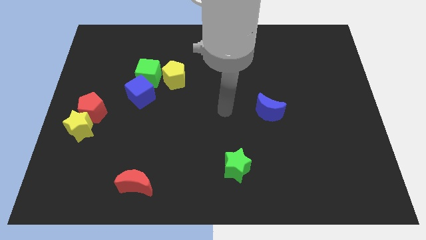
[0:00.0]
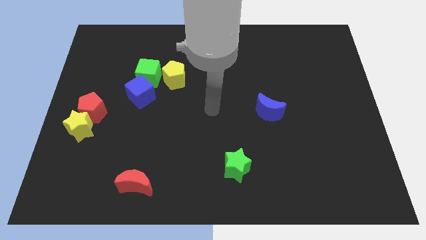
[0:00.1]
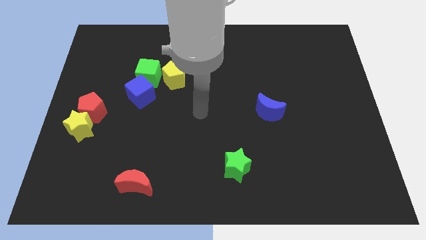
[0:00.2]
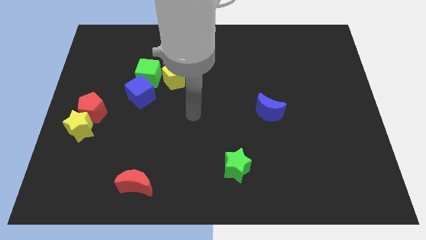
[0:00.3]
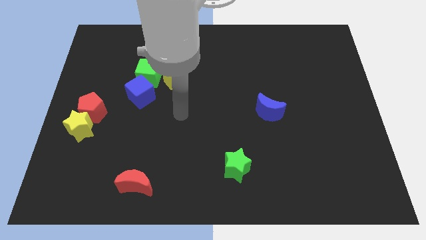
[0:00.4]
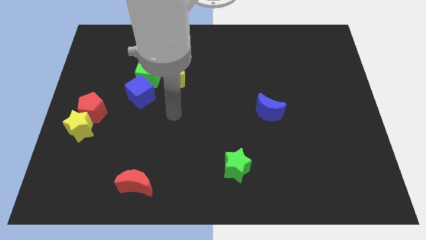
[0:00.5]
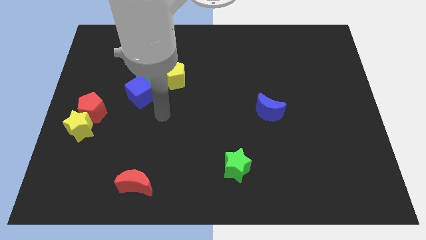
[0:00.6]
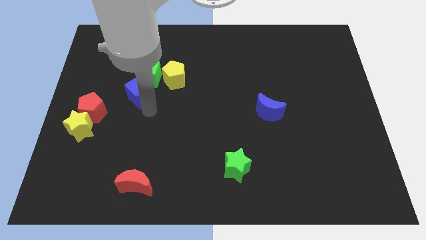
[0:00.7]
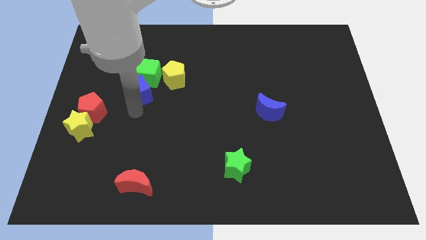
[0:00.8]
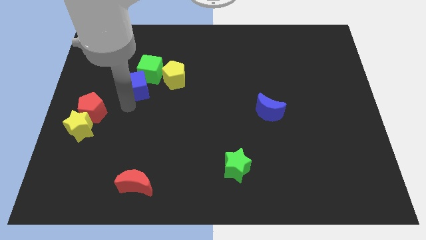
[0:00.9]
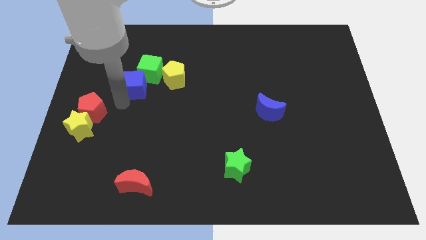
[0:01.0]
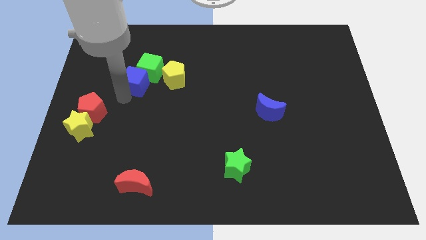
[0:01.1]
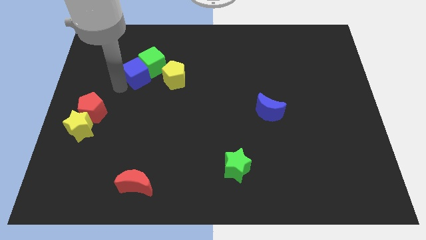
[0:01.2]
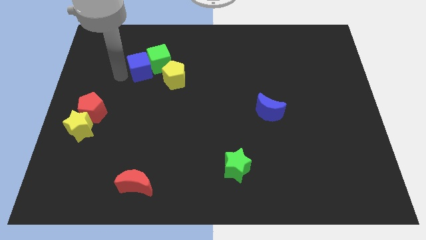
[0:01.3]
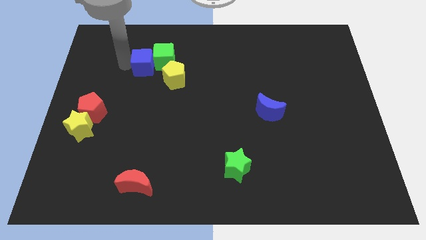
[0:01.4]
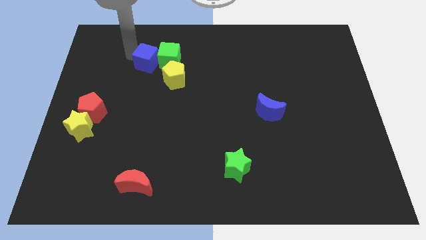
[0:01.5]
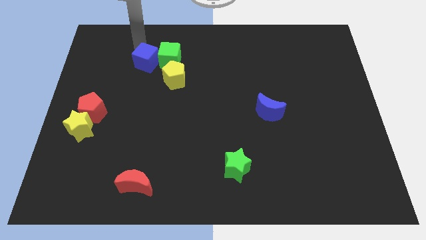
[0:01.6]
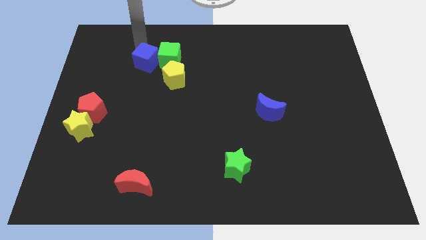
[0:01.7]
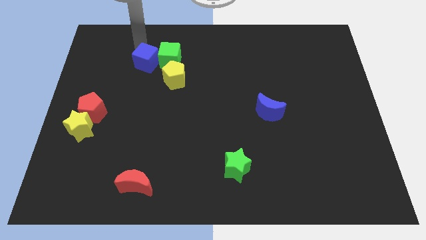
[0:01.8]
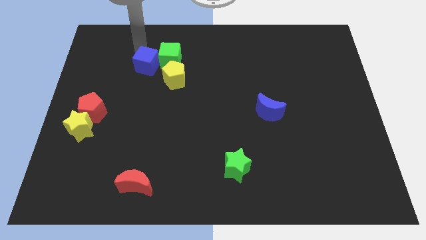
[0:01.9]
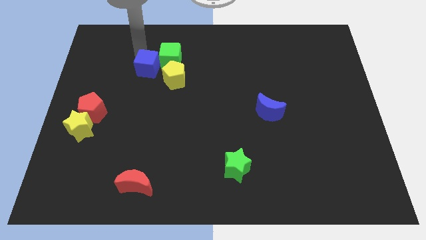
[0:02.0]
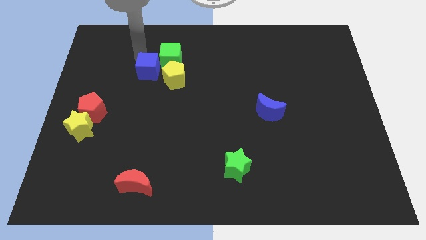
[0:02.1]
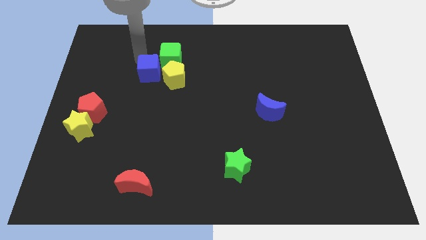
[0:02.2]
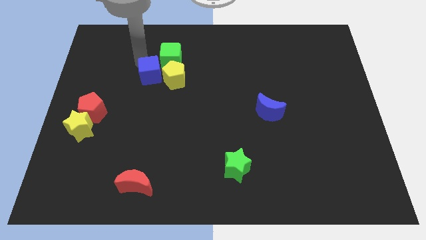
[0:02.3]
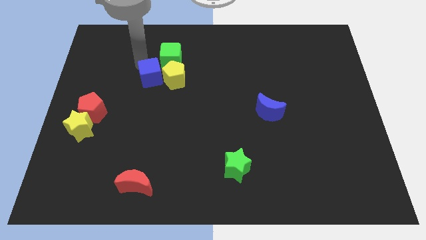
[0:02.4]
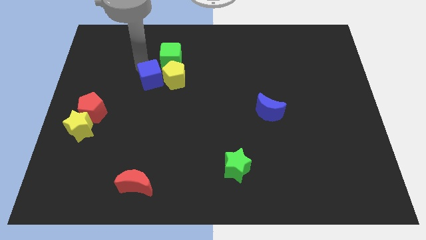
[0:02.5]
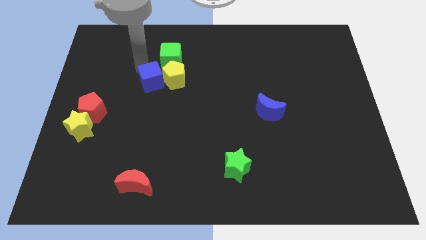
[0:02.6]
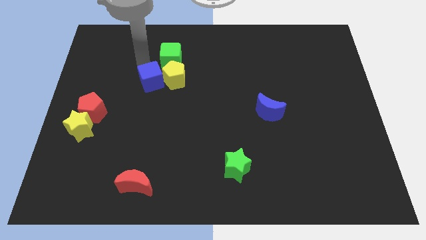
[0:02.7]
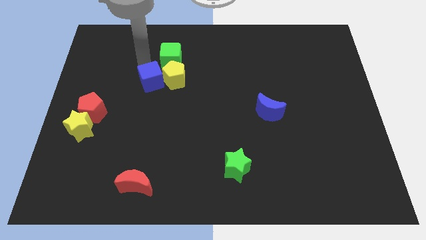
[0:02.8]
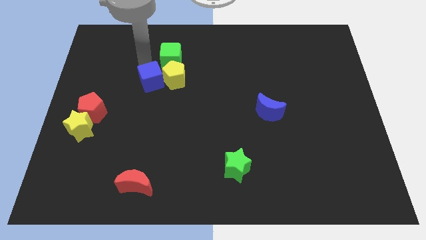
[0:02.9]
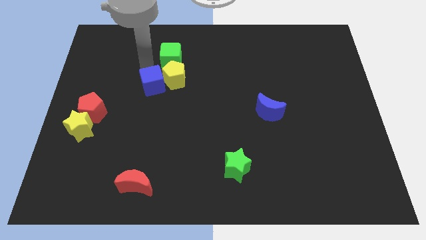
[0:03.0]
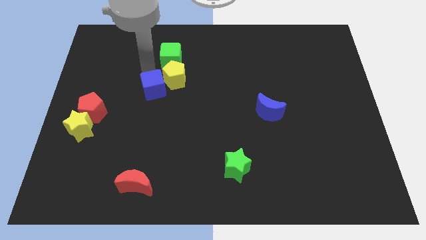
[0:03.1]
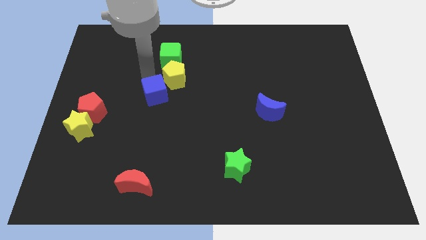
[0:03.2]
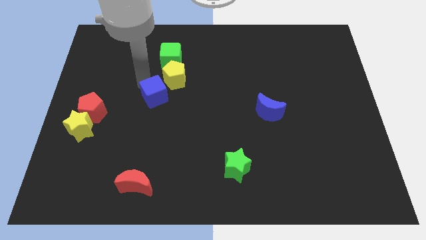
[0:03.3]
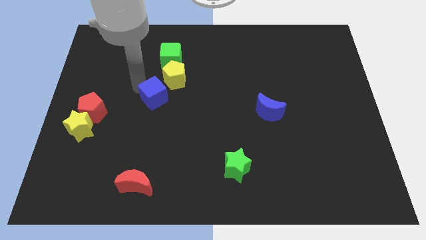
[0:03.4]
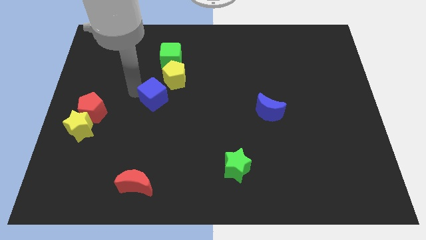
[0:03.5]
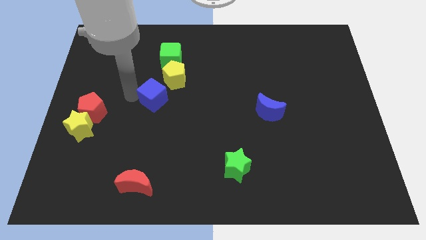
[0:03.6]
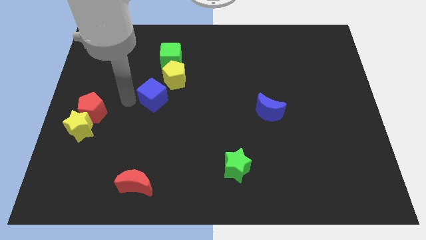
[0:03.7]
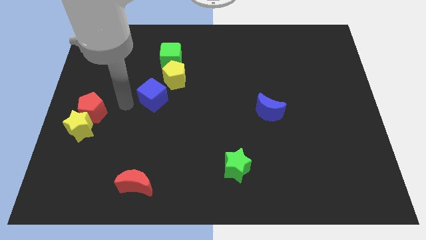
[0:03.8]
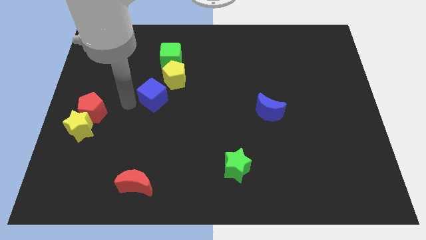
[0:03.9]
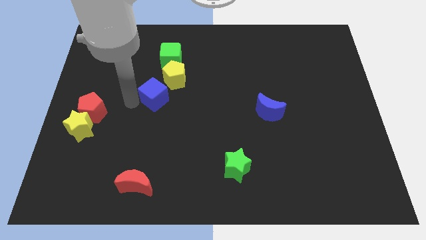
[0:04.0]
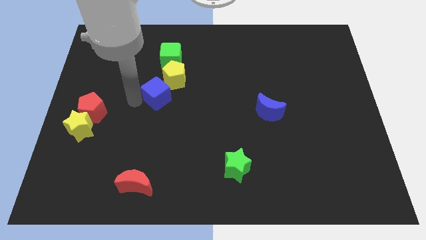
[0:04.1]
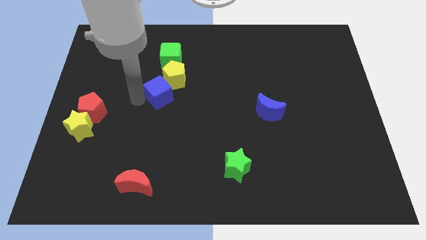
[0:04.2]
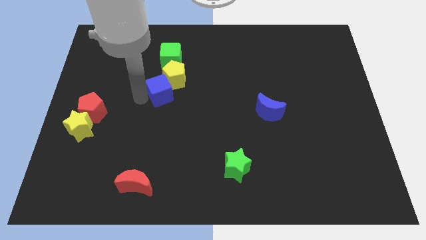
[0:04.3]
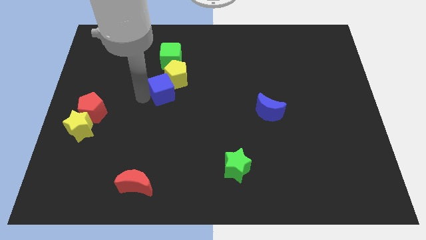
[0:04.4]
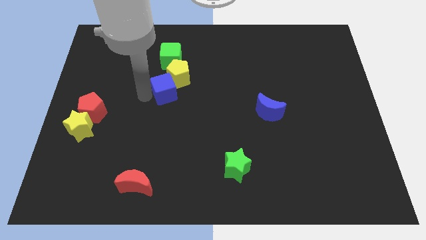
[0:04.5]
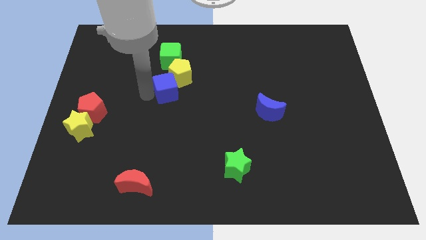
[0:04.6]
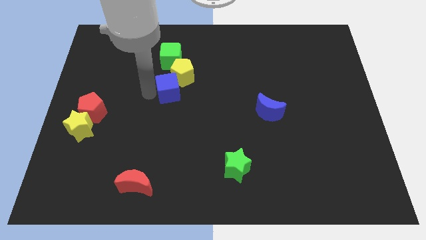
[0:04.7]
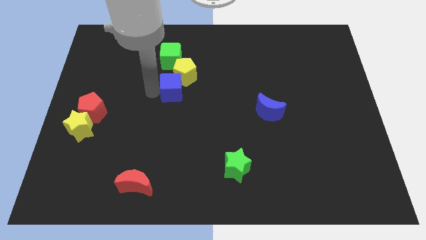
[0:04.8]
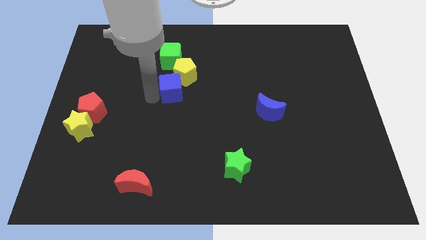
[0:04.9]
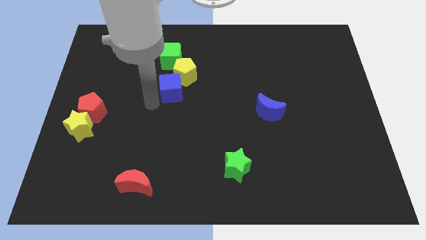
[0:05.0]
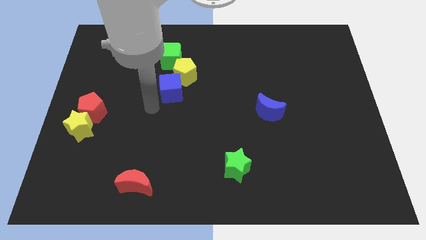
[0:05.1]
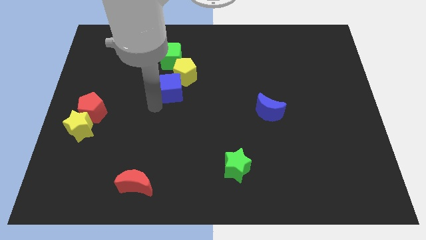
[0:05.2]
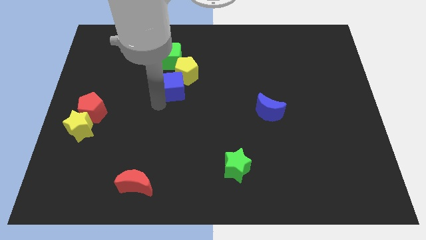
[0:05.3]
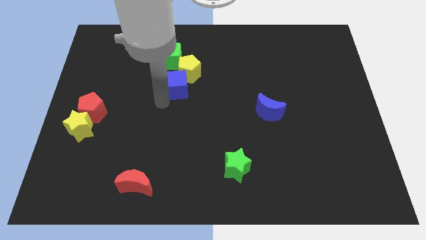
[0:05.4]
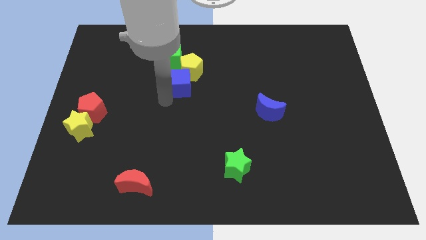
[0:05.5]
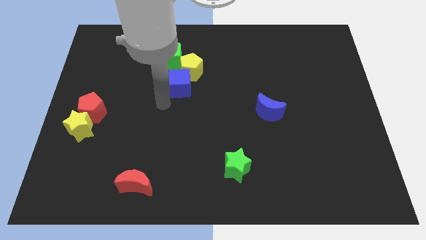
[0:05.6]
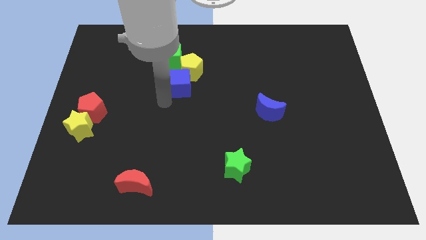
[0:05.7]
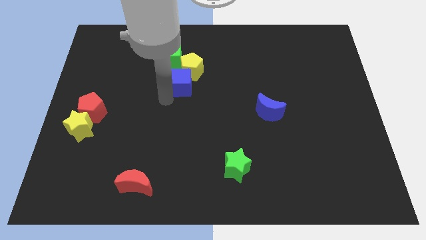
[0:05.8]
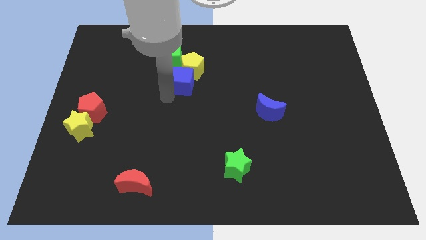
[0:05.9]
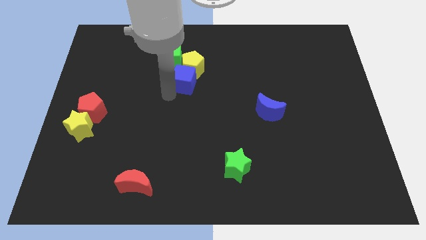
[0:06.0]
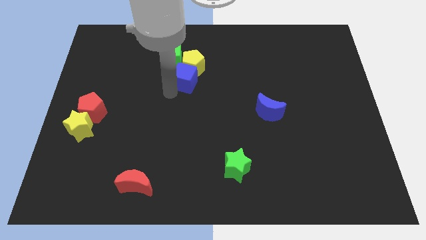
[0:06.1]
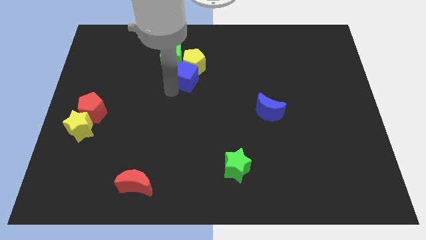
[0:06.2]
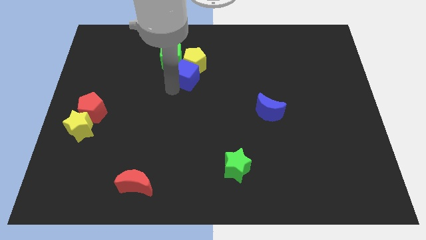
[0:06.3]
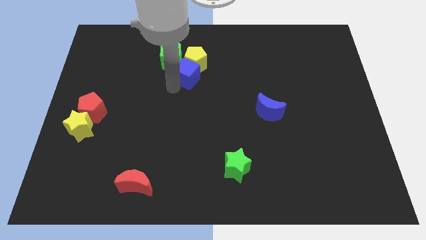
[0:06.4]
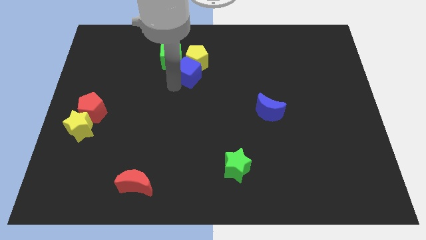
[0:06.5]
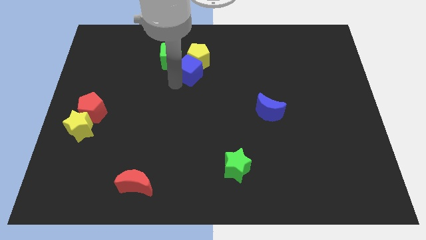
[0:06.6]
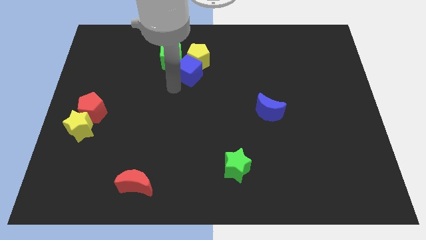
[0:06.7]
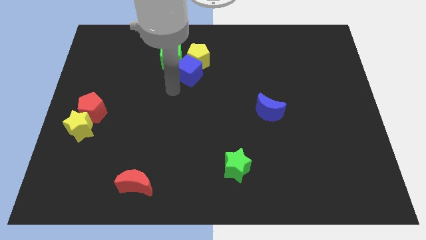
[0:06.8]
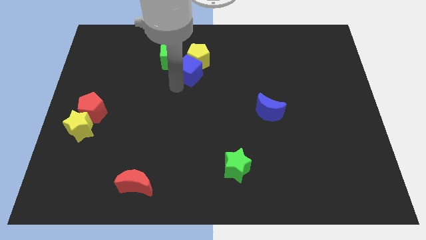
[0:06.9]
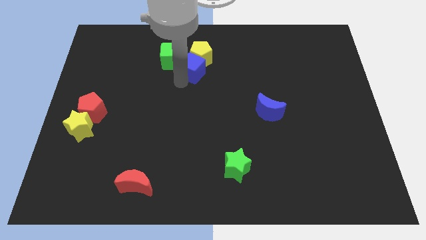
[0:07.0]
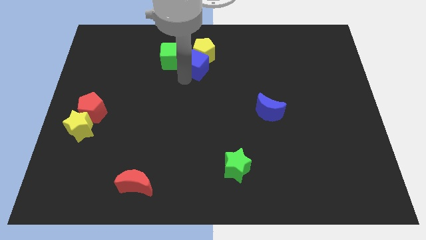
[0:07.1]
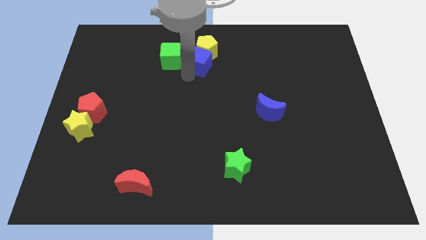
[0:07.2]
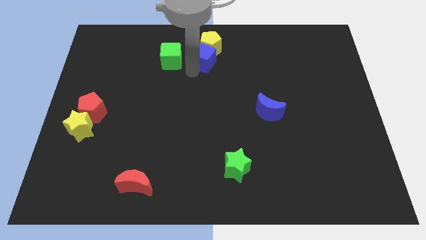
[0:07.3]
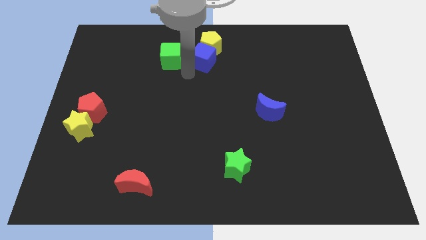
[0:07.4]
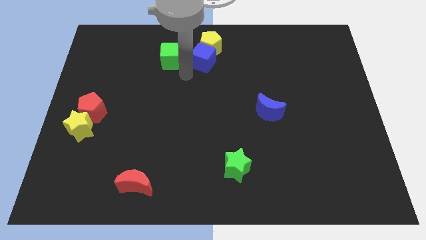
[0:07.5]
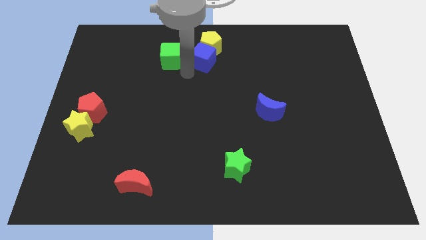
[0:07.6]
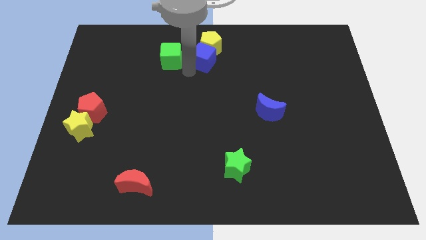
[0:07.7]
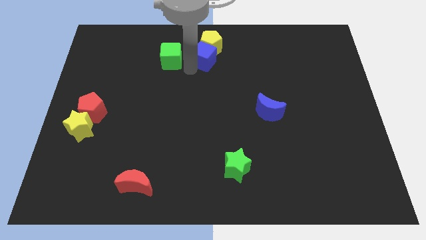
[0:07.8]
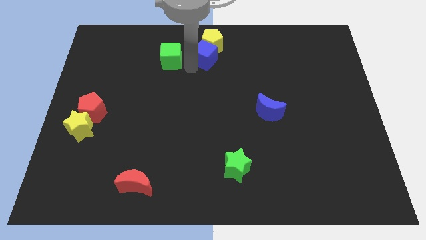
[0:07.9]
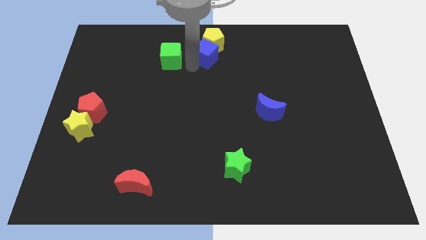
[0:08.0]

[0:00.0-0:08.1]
push the blue cube to the towards your base
